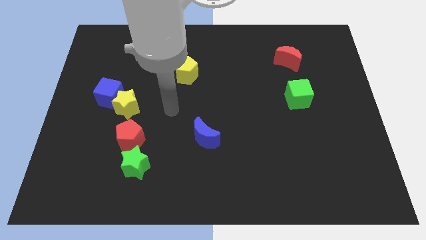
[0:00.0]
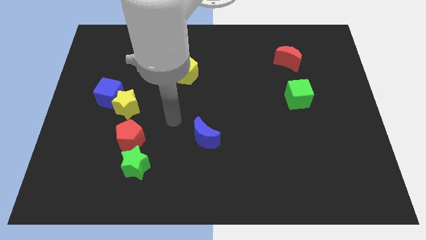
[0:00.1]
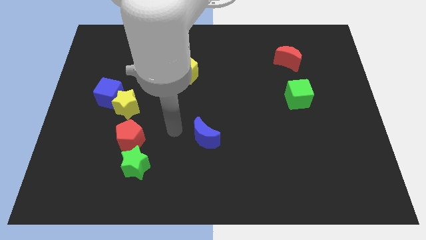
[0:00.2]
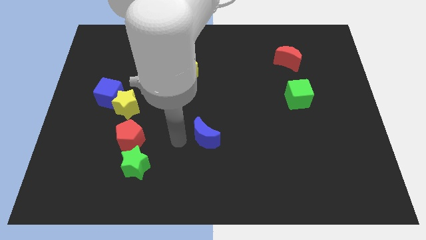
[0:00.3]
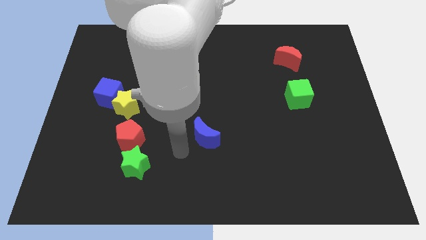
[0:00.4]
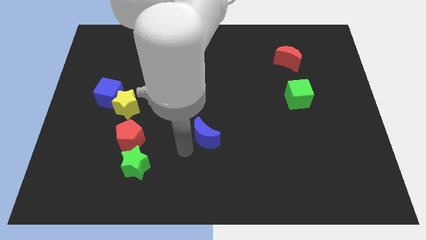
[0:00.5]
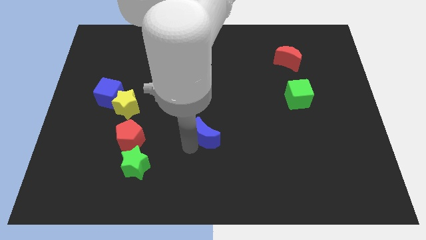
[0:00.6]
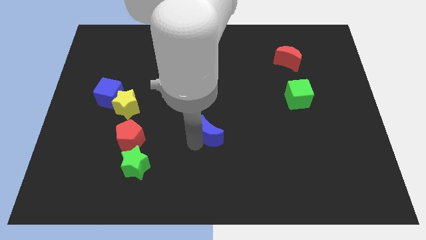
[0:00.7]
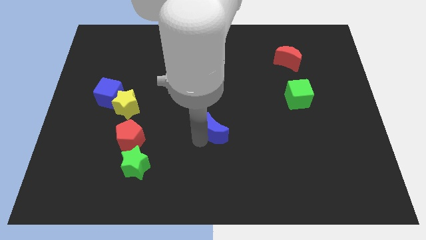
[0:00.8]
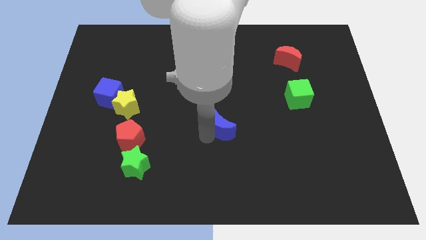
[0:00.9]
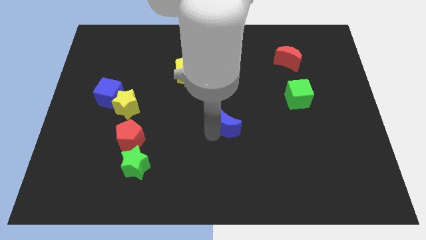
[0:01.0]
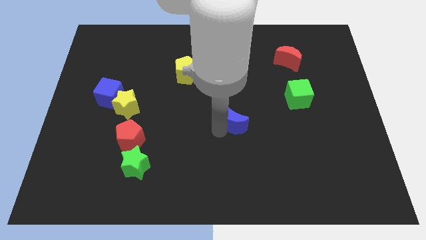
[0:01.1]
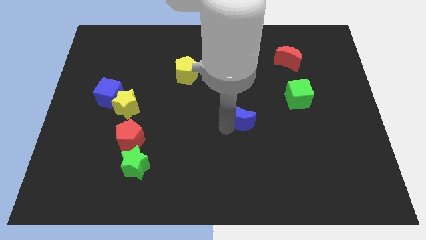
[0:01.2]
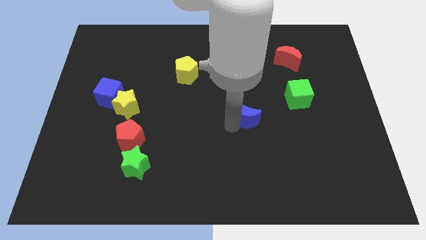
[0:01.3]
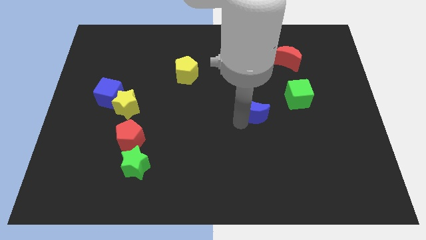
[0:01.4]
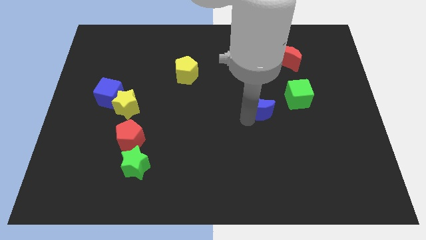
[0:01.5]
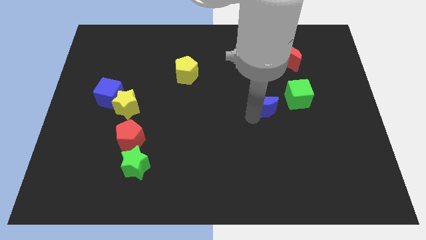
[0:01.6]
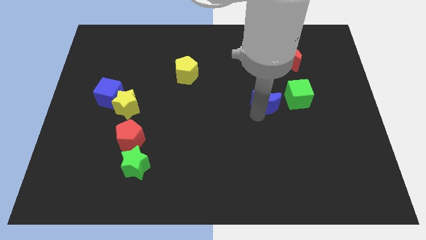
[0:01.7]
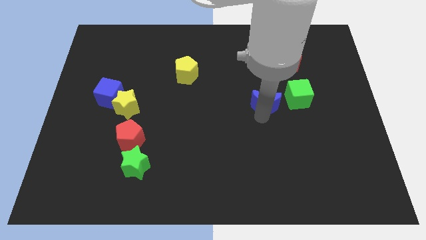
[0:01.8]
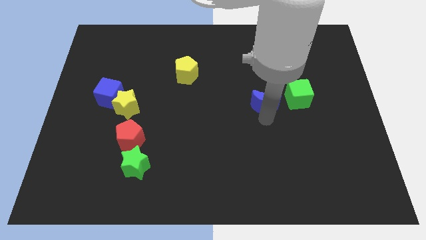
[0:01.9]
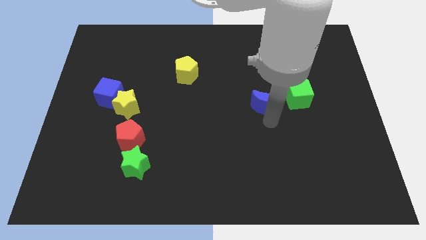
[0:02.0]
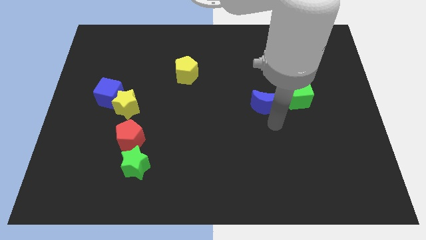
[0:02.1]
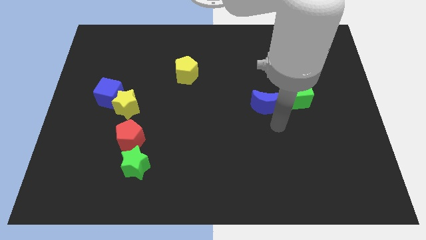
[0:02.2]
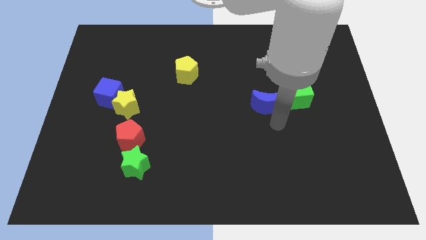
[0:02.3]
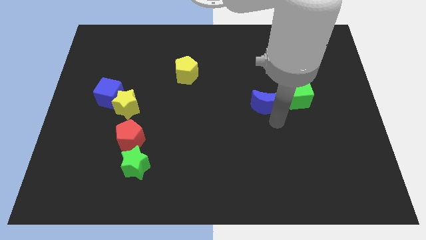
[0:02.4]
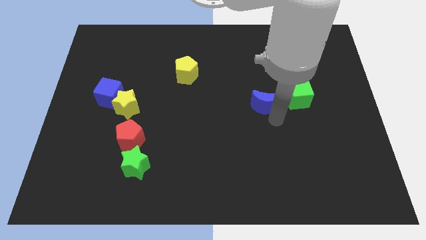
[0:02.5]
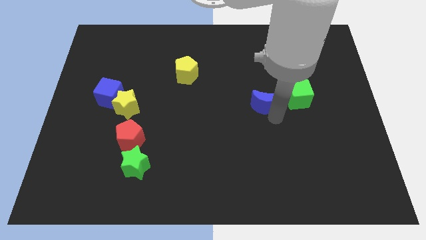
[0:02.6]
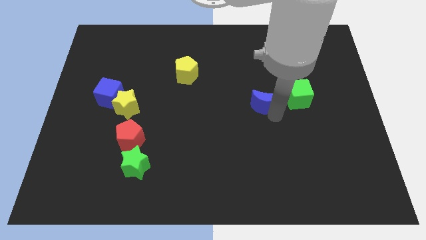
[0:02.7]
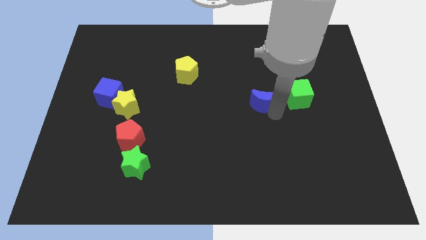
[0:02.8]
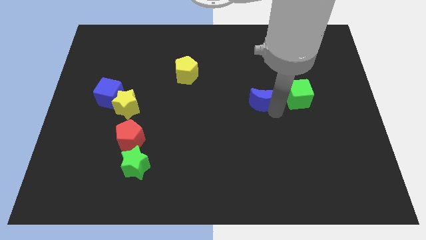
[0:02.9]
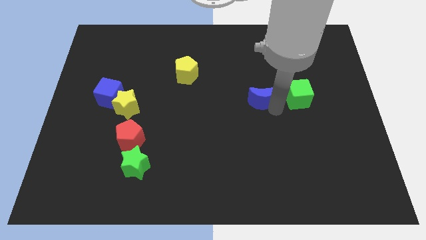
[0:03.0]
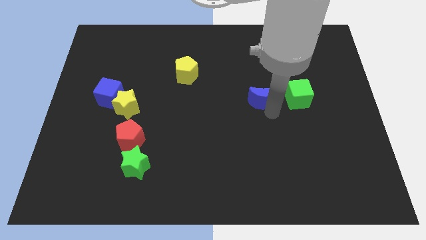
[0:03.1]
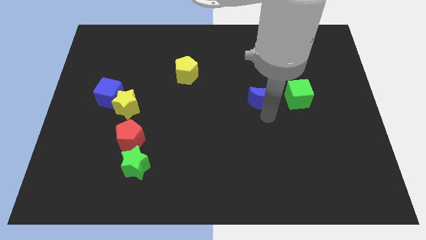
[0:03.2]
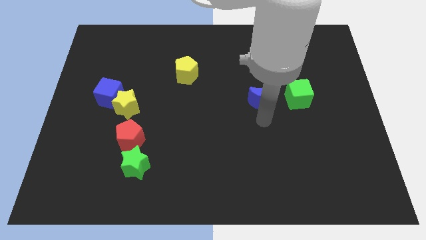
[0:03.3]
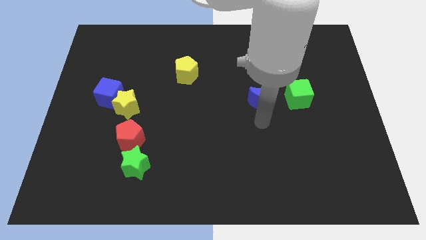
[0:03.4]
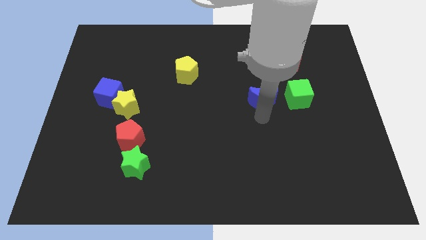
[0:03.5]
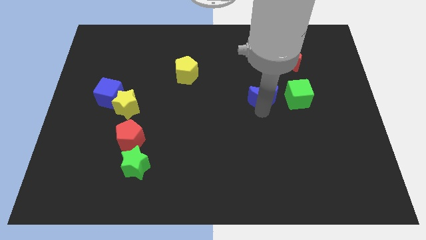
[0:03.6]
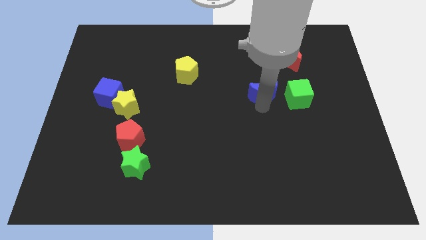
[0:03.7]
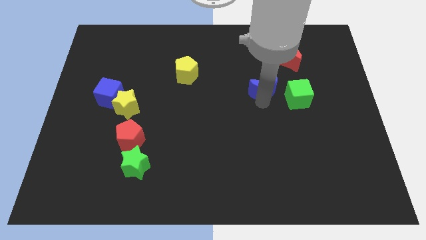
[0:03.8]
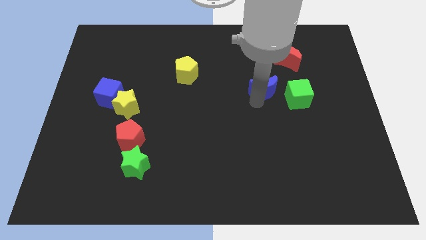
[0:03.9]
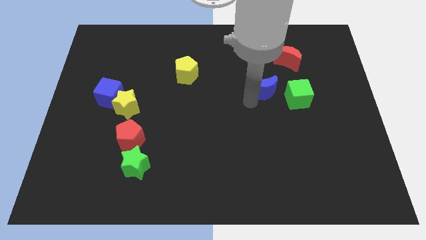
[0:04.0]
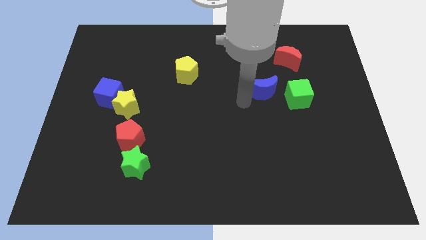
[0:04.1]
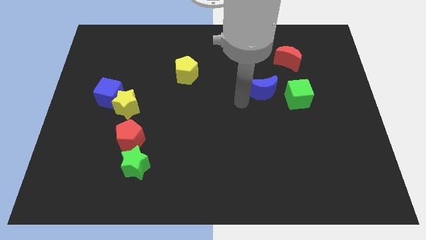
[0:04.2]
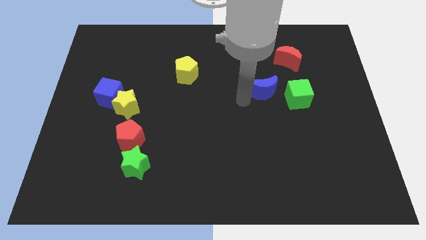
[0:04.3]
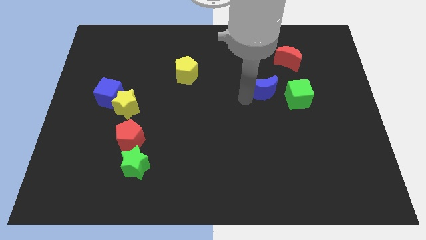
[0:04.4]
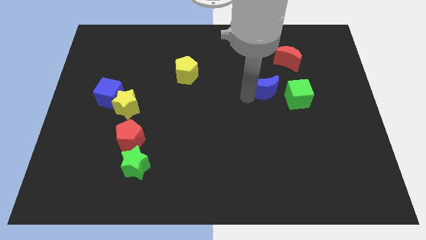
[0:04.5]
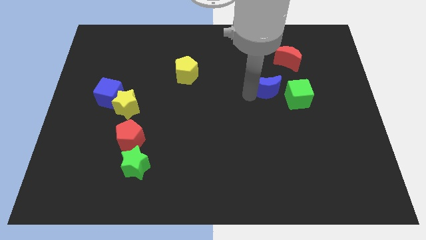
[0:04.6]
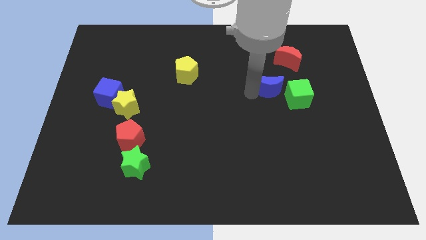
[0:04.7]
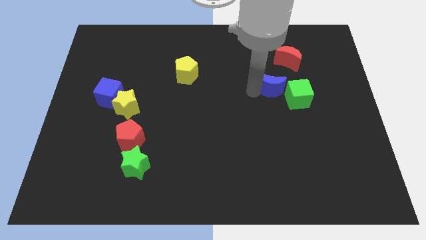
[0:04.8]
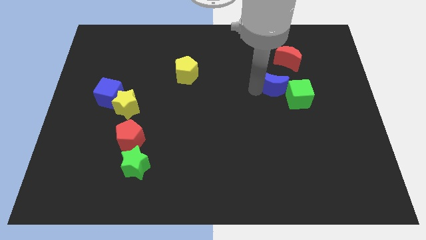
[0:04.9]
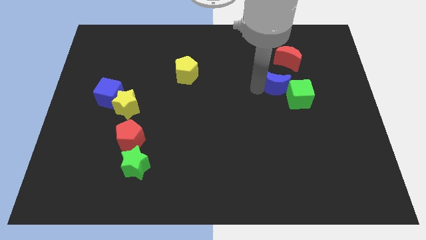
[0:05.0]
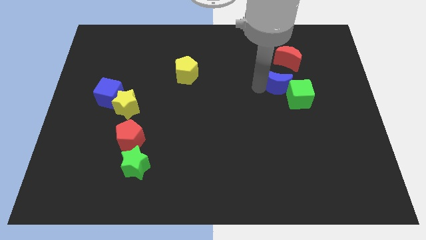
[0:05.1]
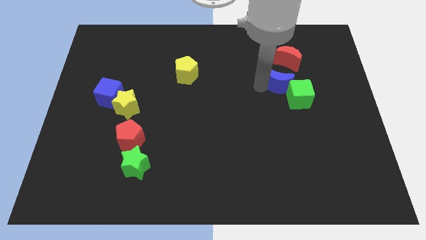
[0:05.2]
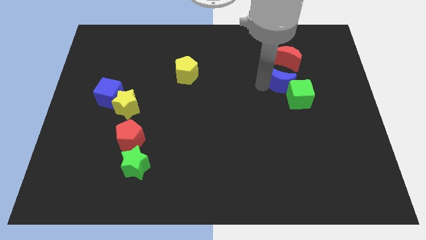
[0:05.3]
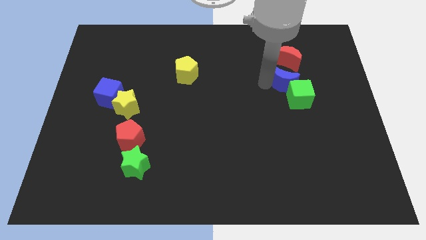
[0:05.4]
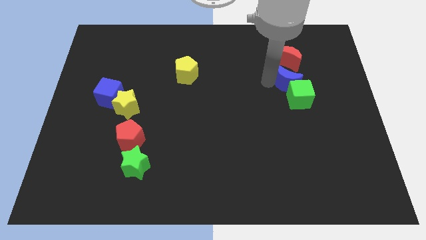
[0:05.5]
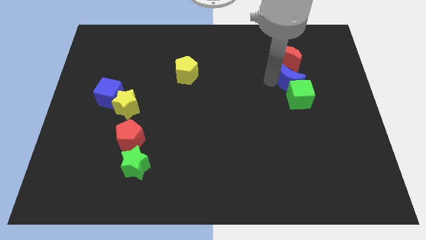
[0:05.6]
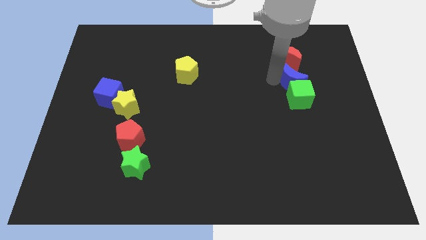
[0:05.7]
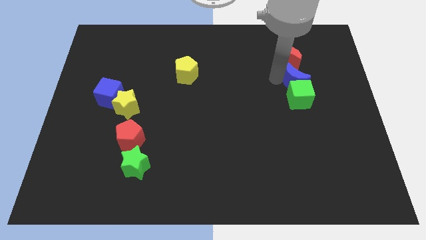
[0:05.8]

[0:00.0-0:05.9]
put the blue moon diagonally down and to the right of the red moon

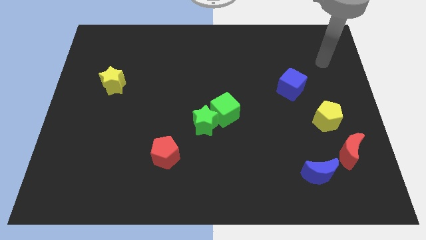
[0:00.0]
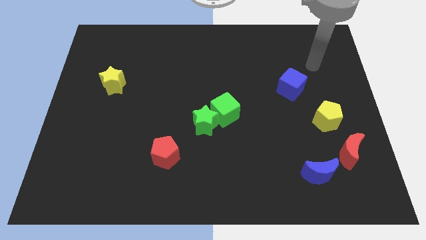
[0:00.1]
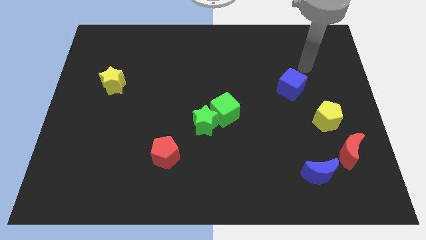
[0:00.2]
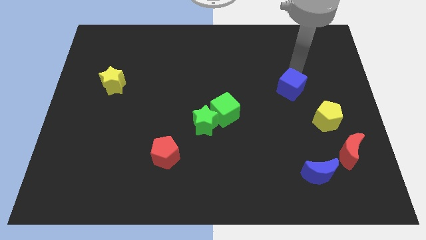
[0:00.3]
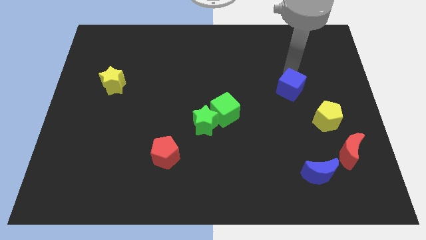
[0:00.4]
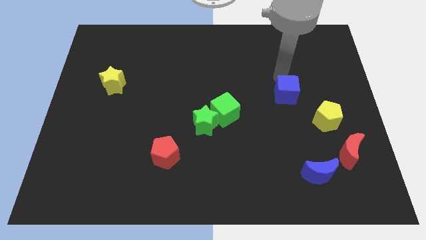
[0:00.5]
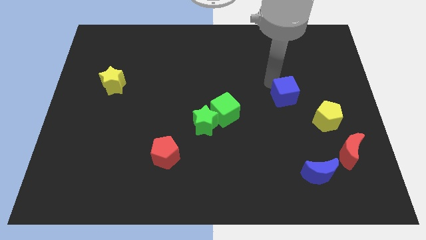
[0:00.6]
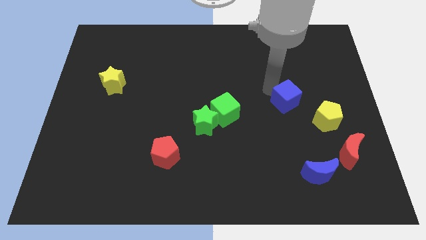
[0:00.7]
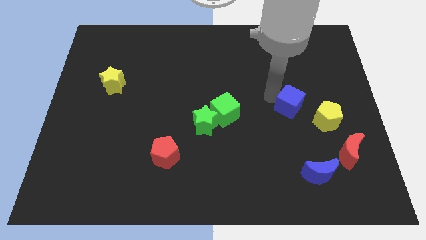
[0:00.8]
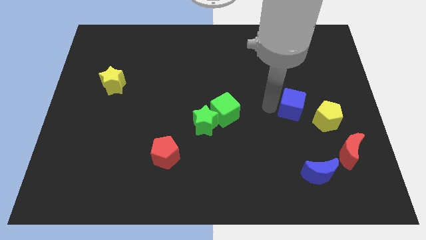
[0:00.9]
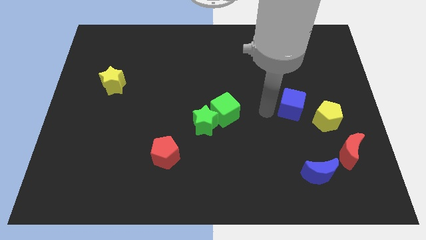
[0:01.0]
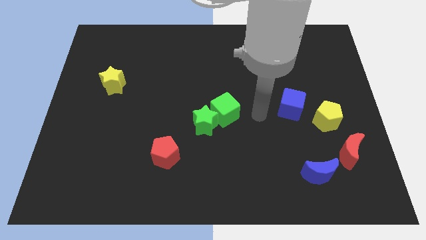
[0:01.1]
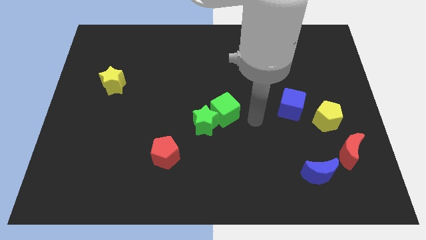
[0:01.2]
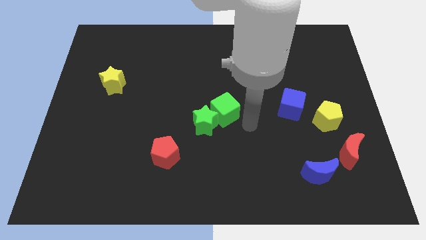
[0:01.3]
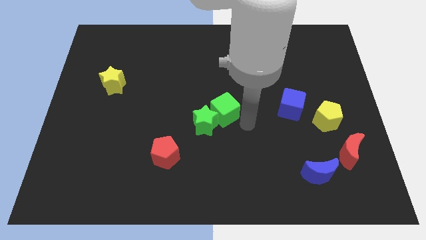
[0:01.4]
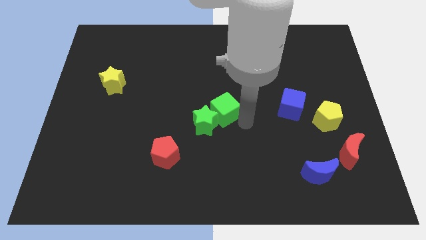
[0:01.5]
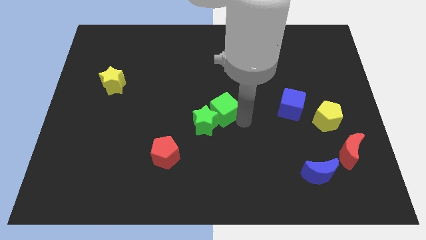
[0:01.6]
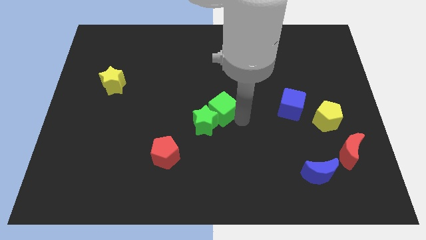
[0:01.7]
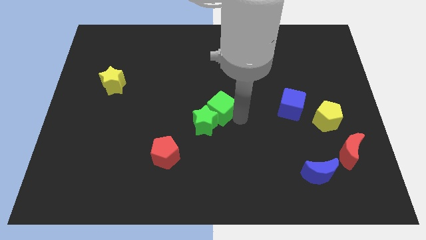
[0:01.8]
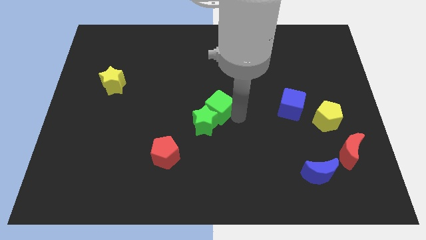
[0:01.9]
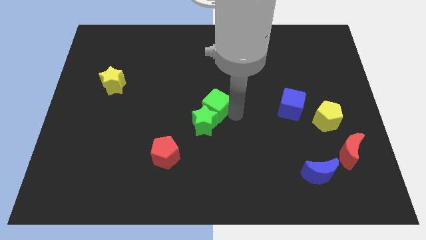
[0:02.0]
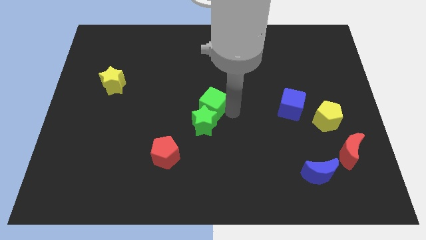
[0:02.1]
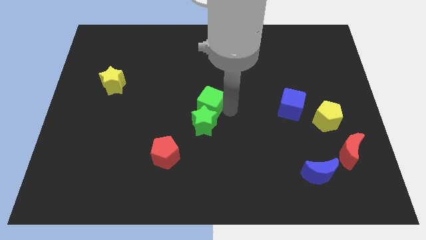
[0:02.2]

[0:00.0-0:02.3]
slide the green cube to the top left side of the green star
